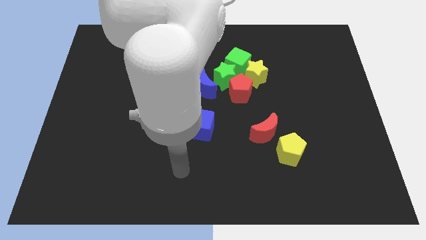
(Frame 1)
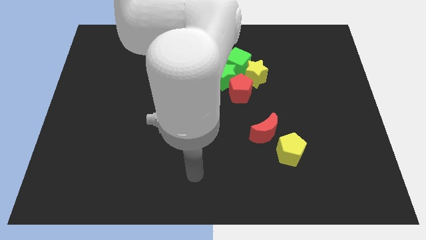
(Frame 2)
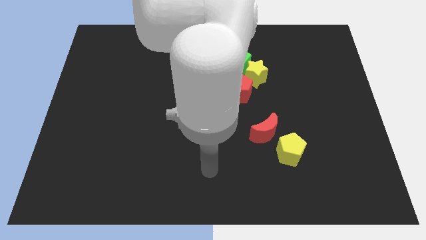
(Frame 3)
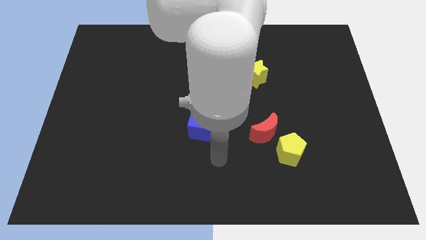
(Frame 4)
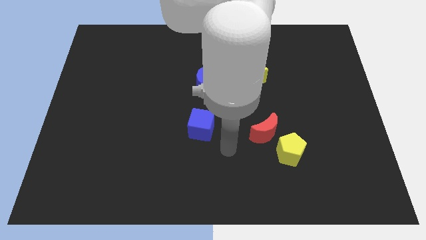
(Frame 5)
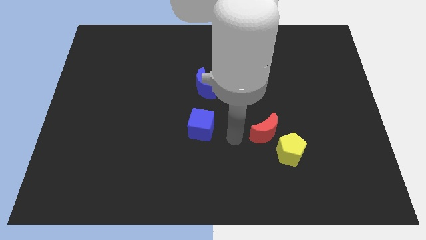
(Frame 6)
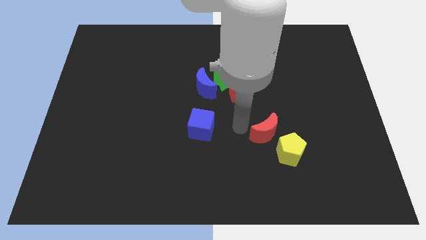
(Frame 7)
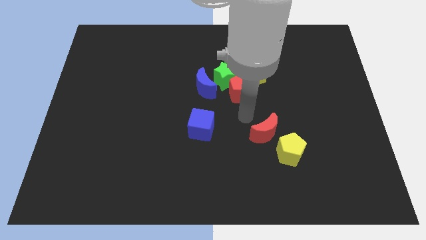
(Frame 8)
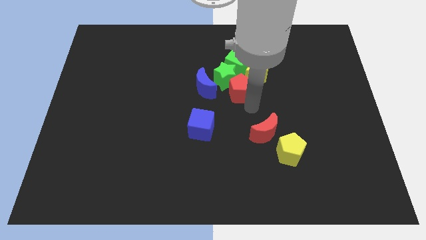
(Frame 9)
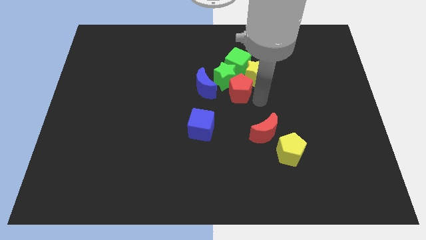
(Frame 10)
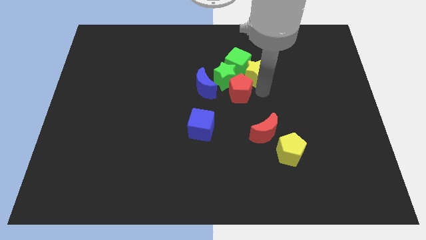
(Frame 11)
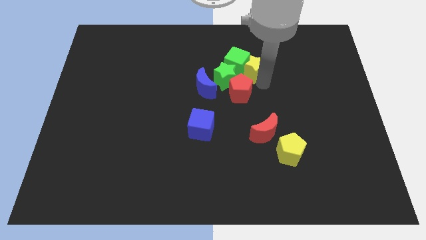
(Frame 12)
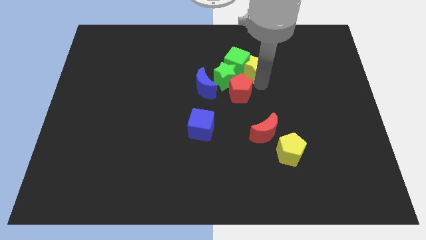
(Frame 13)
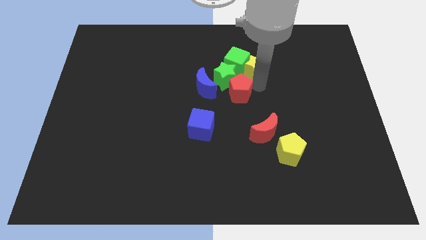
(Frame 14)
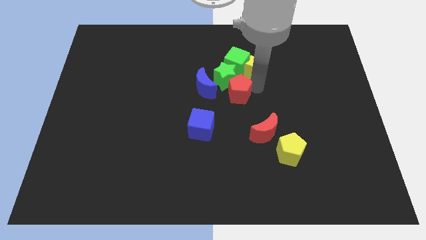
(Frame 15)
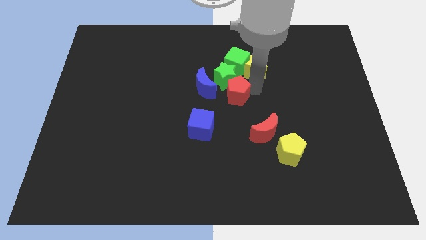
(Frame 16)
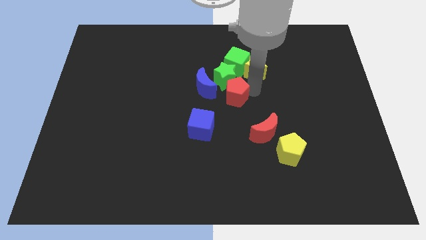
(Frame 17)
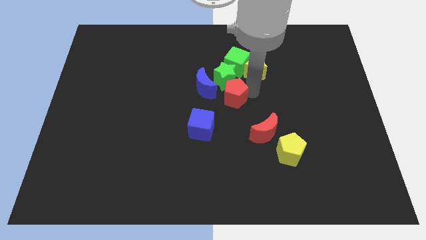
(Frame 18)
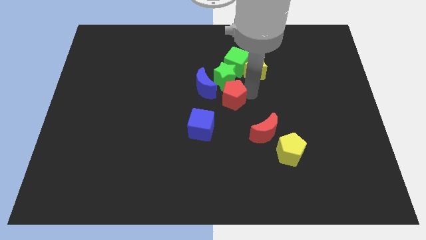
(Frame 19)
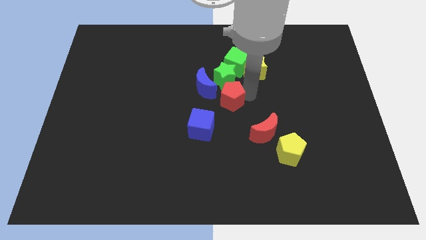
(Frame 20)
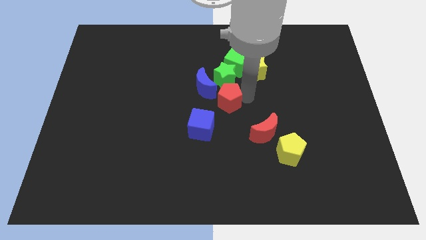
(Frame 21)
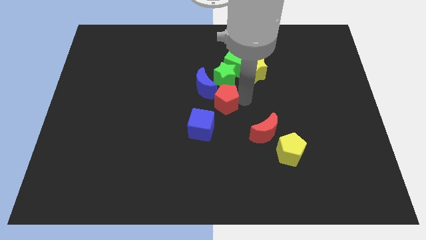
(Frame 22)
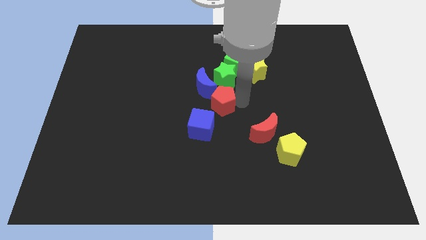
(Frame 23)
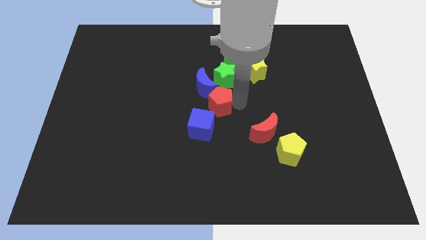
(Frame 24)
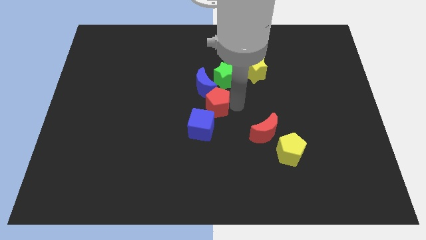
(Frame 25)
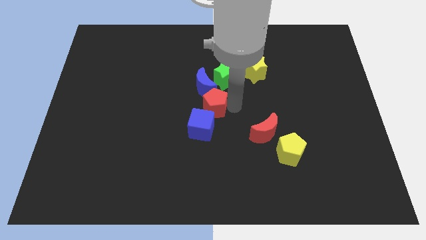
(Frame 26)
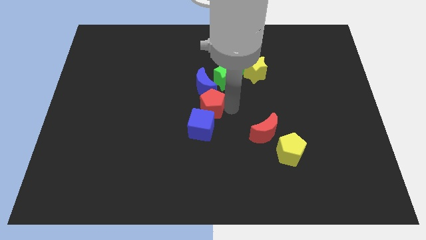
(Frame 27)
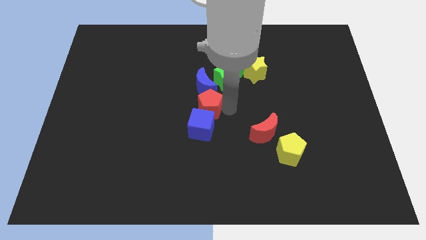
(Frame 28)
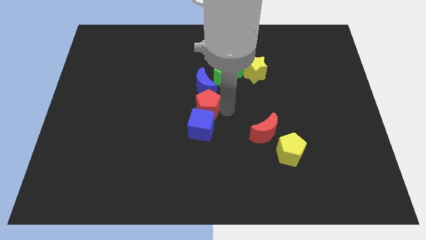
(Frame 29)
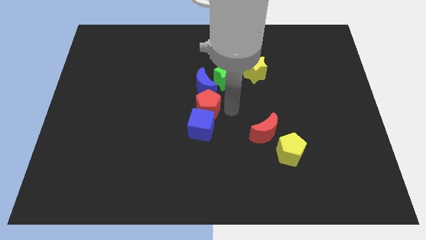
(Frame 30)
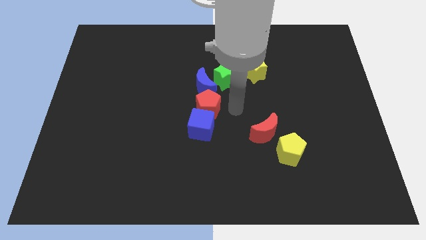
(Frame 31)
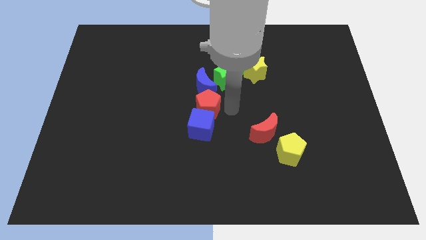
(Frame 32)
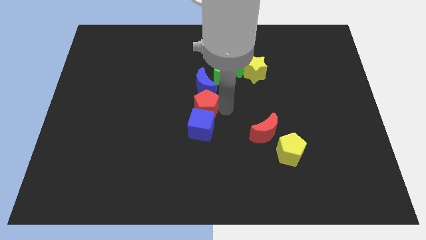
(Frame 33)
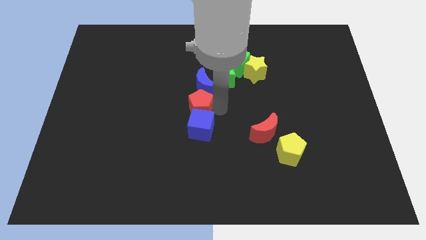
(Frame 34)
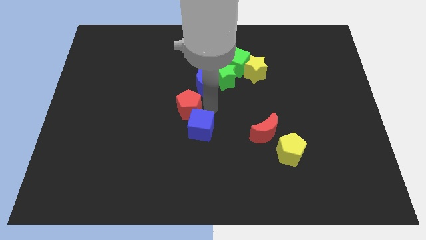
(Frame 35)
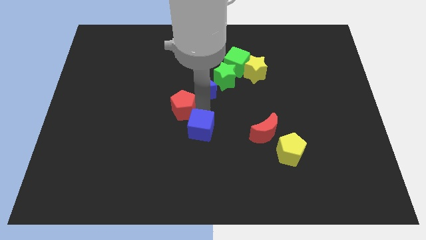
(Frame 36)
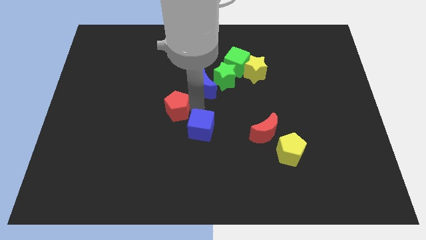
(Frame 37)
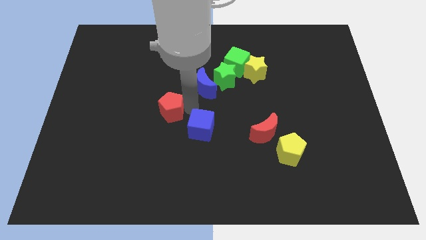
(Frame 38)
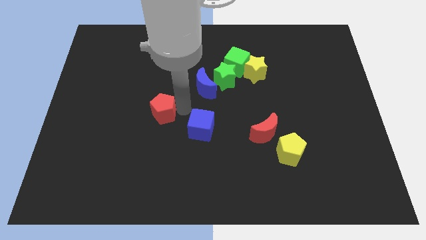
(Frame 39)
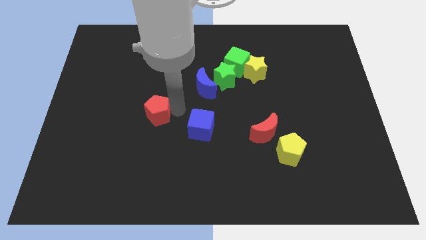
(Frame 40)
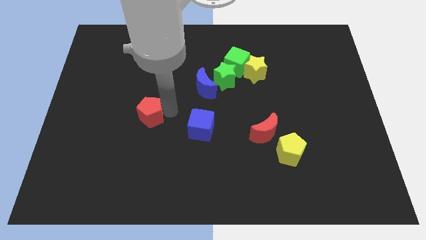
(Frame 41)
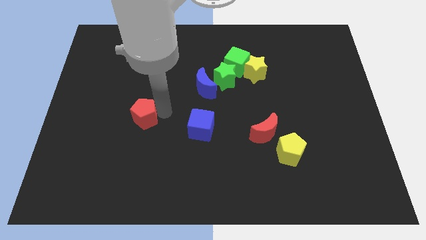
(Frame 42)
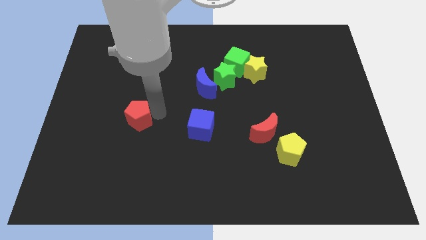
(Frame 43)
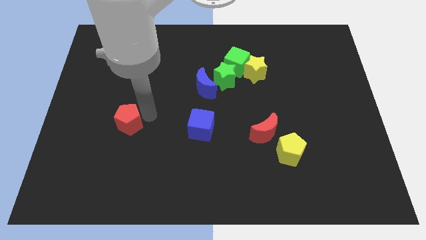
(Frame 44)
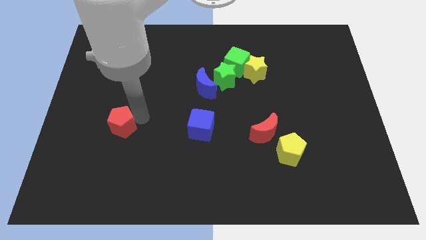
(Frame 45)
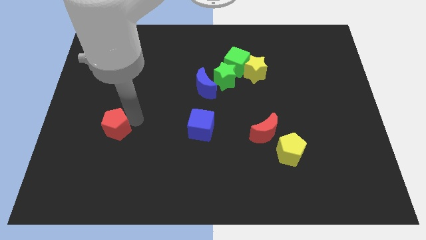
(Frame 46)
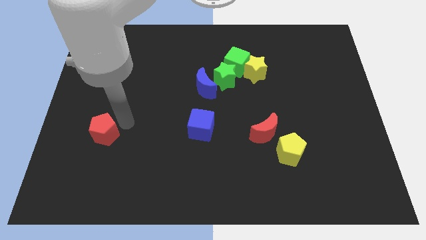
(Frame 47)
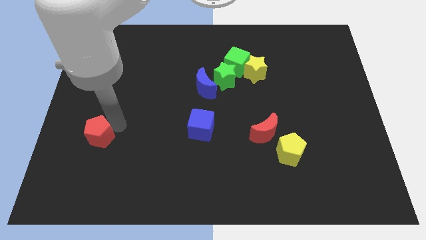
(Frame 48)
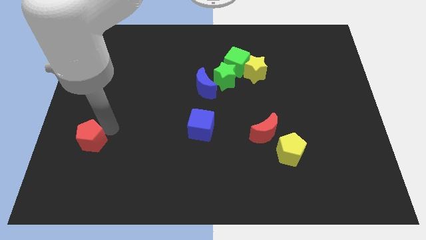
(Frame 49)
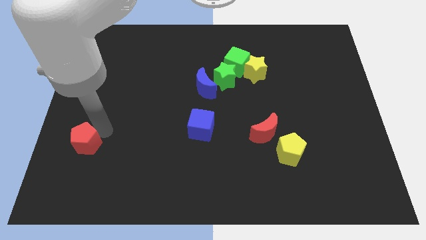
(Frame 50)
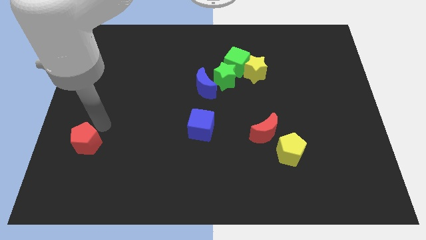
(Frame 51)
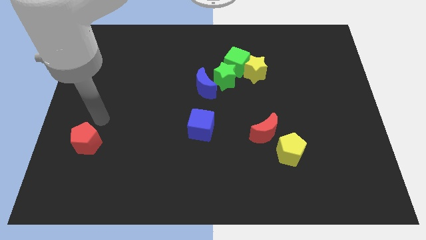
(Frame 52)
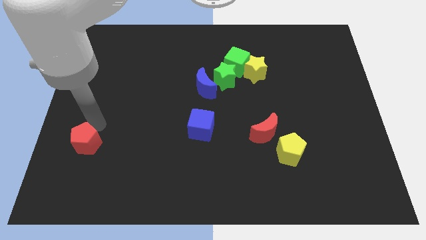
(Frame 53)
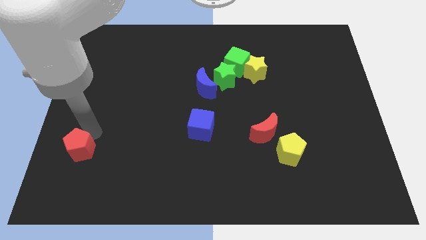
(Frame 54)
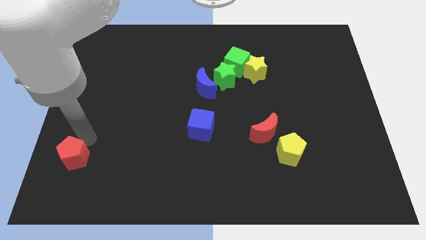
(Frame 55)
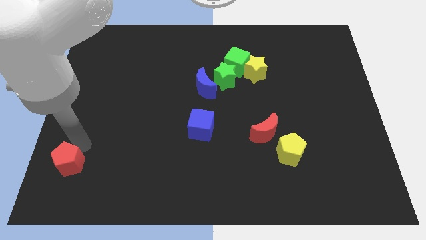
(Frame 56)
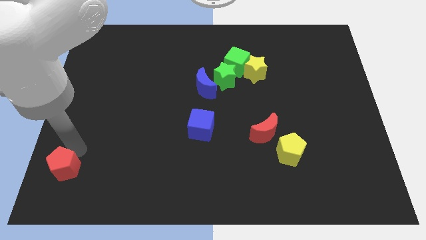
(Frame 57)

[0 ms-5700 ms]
put the red pentagon to the bottom left of the board

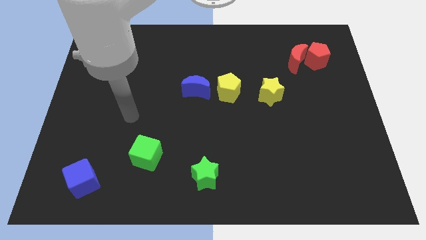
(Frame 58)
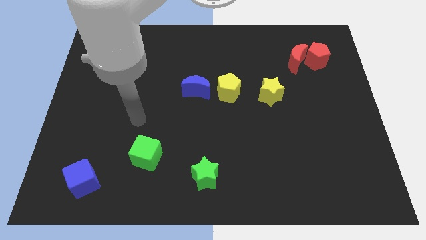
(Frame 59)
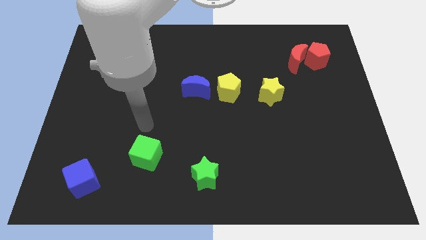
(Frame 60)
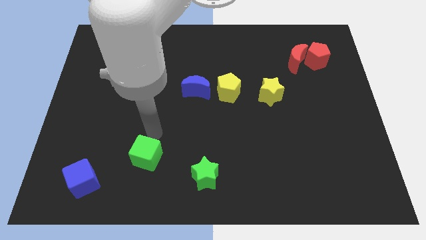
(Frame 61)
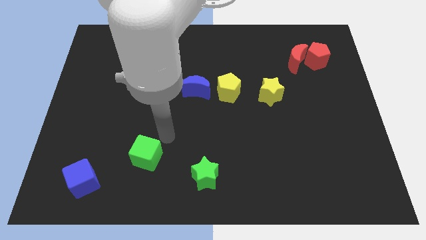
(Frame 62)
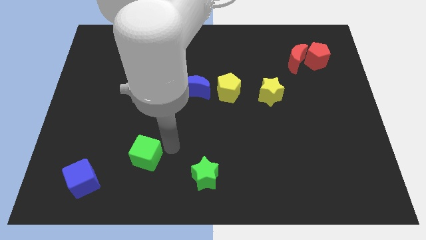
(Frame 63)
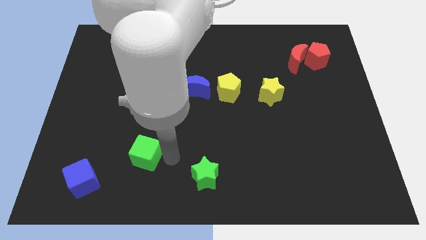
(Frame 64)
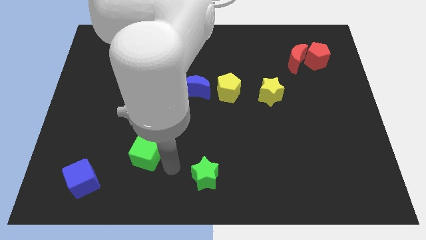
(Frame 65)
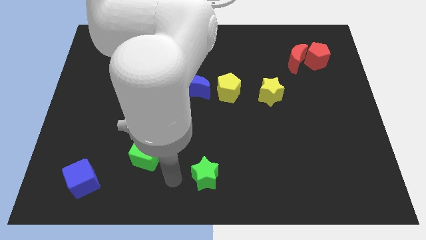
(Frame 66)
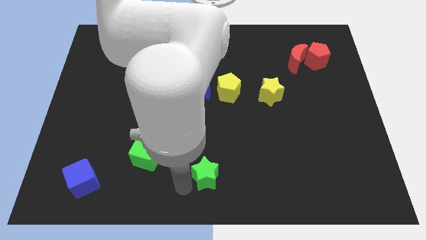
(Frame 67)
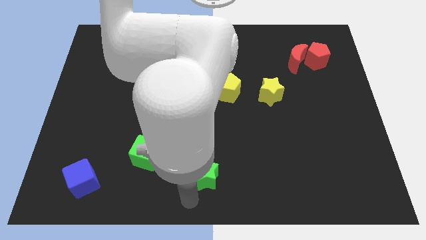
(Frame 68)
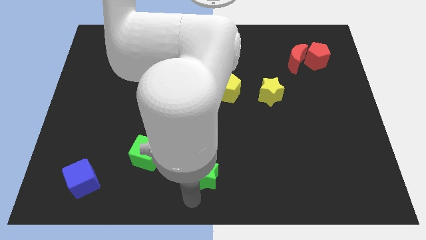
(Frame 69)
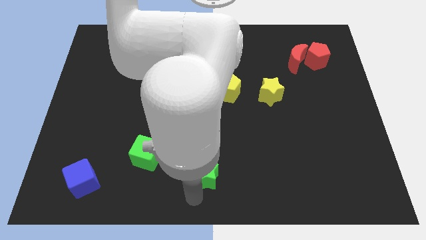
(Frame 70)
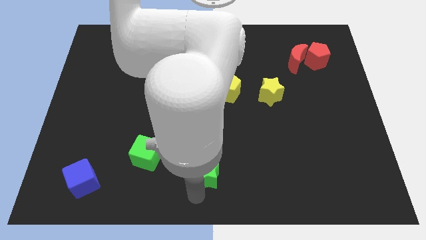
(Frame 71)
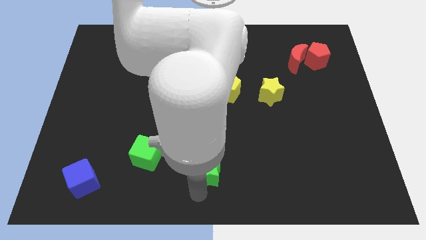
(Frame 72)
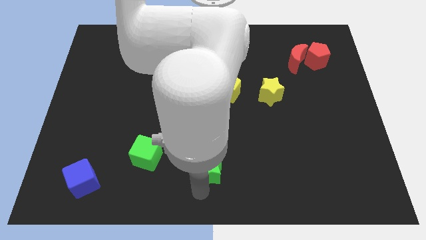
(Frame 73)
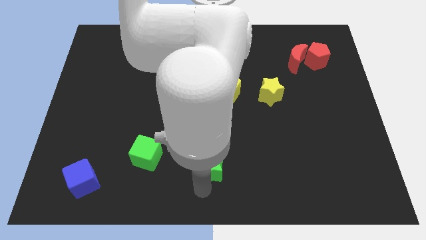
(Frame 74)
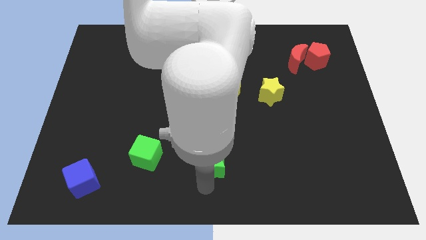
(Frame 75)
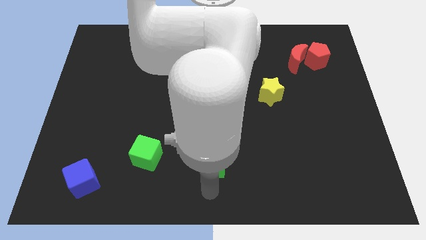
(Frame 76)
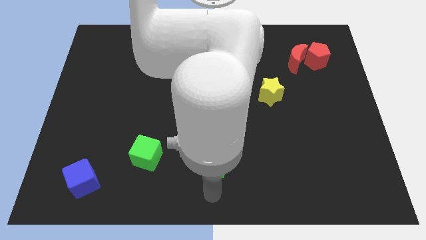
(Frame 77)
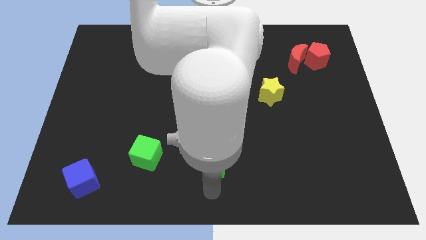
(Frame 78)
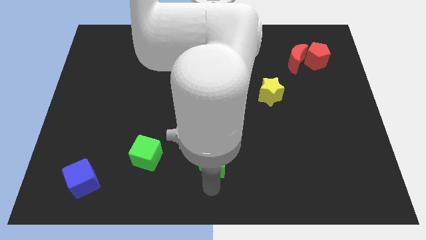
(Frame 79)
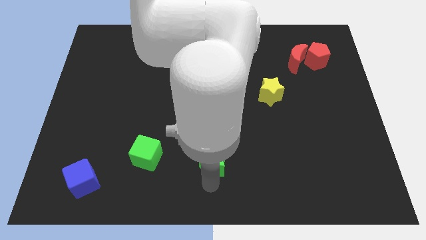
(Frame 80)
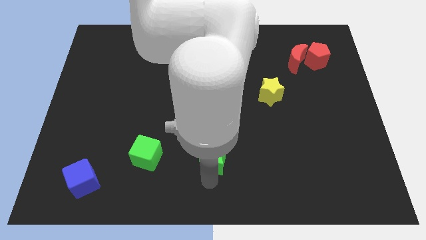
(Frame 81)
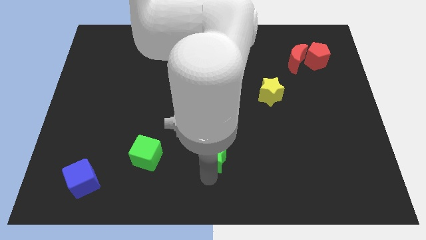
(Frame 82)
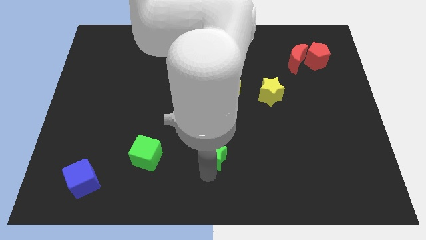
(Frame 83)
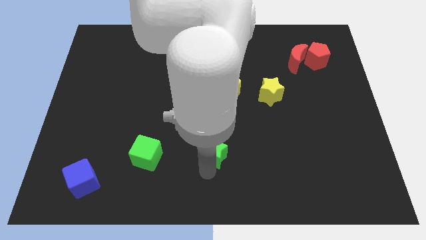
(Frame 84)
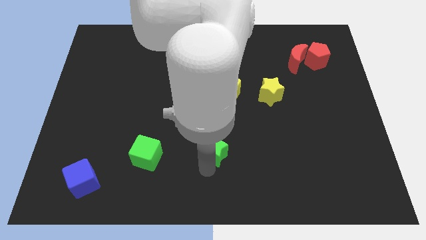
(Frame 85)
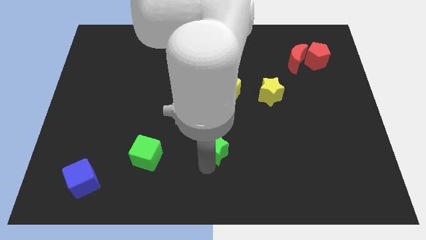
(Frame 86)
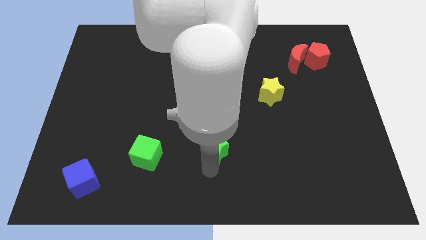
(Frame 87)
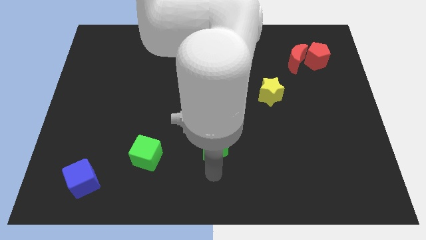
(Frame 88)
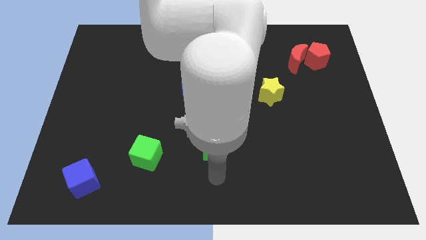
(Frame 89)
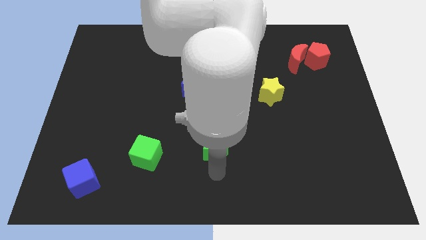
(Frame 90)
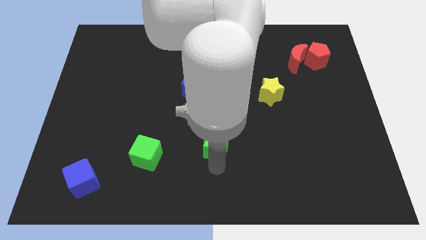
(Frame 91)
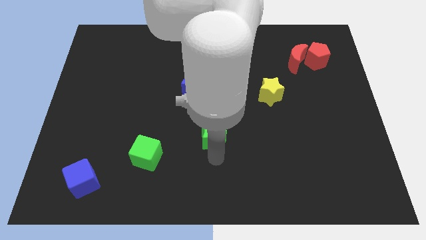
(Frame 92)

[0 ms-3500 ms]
slide the green star to the middle of the board
